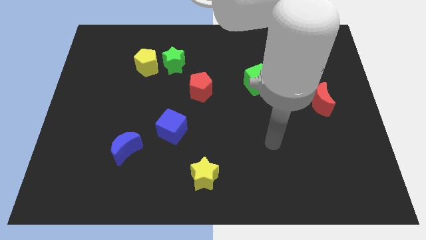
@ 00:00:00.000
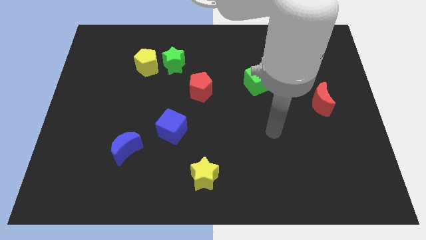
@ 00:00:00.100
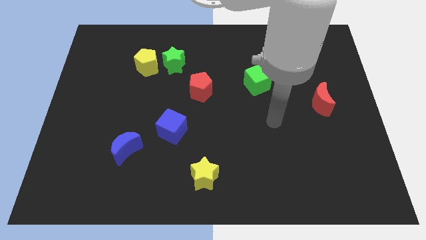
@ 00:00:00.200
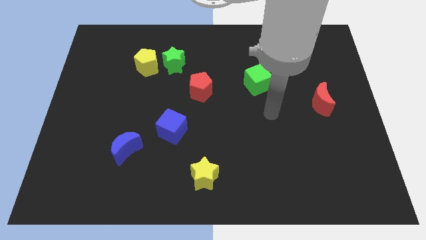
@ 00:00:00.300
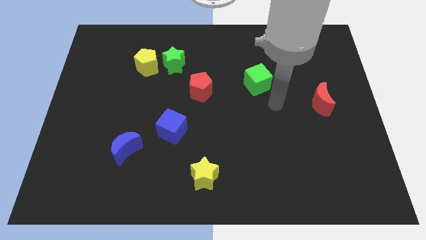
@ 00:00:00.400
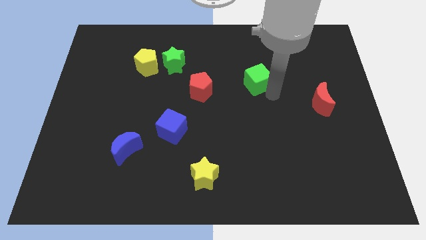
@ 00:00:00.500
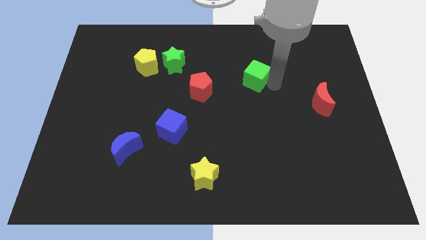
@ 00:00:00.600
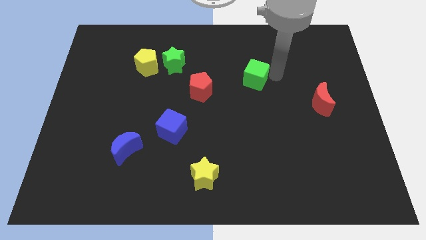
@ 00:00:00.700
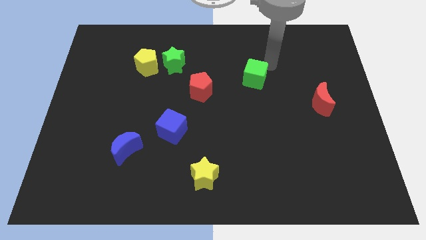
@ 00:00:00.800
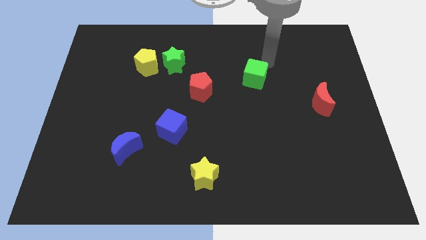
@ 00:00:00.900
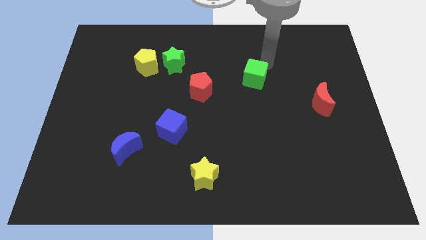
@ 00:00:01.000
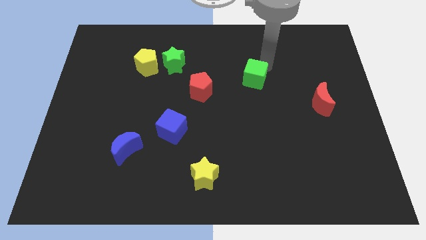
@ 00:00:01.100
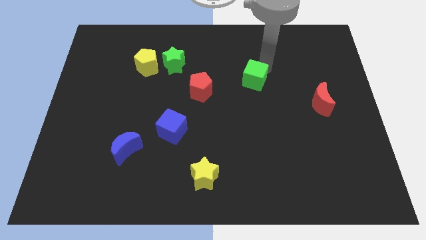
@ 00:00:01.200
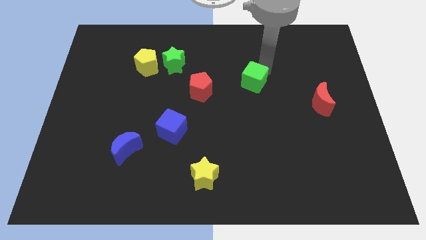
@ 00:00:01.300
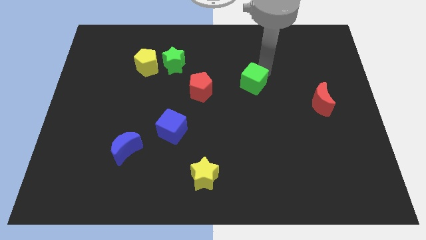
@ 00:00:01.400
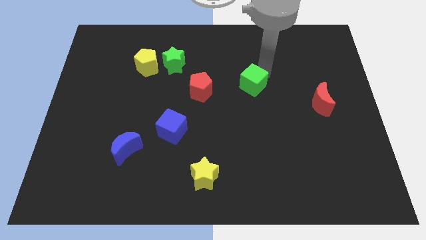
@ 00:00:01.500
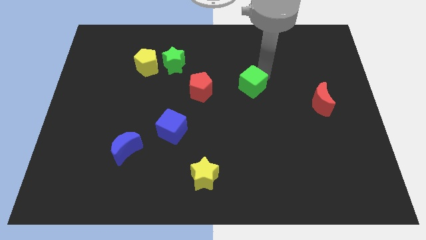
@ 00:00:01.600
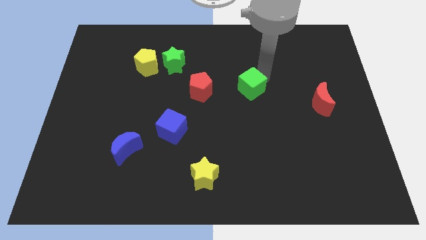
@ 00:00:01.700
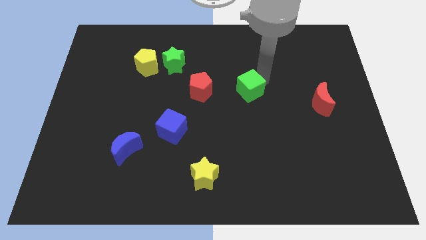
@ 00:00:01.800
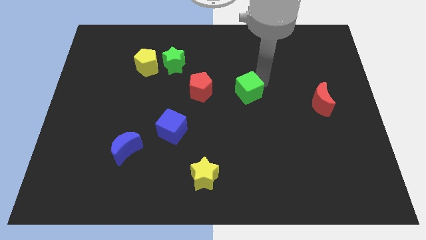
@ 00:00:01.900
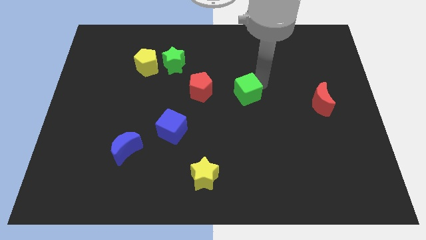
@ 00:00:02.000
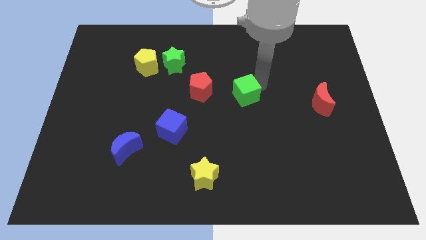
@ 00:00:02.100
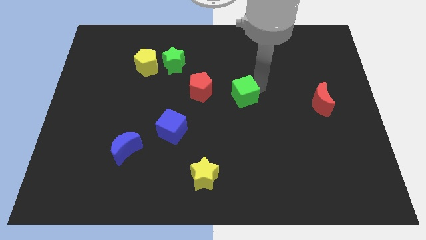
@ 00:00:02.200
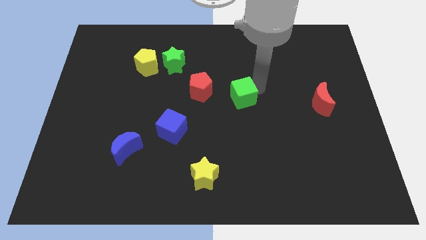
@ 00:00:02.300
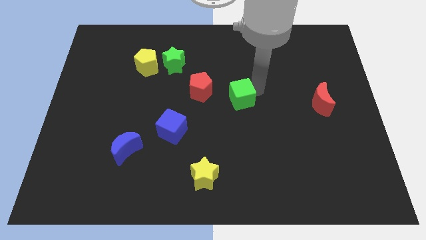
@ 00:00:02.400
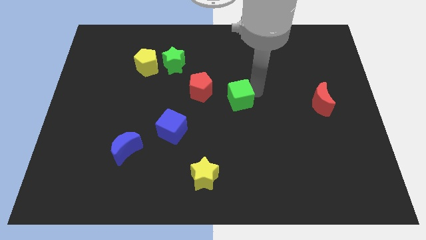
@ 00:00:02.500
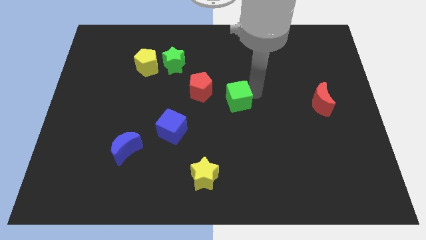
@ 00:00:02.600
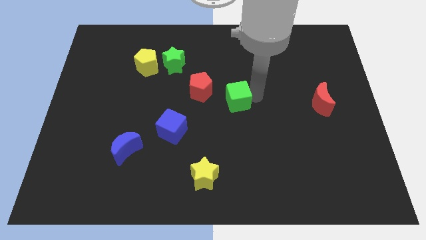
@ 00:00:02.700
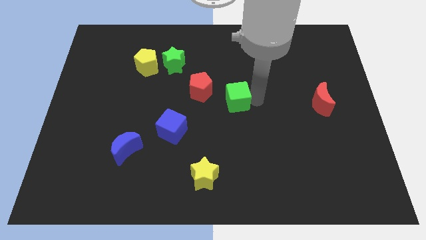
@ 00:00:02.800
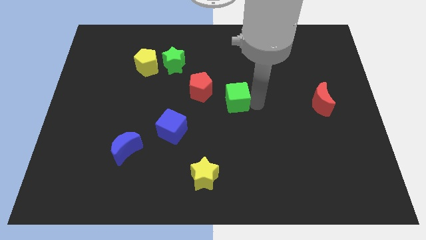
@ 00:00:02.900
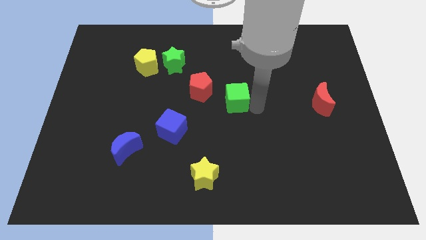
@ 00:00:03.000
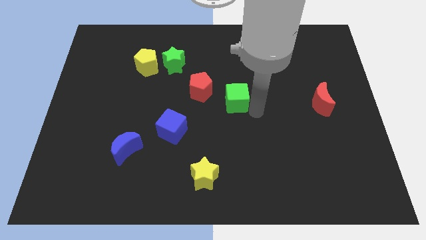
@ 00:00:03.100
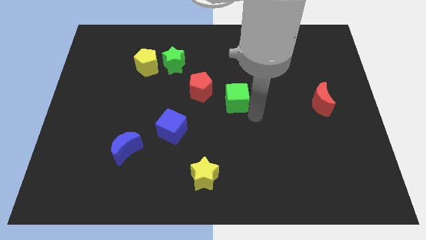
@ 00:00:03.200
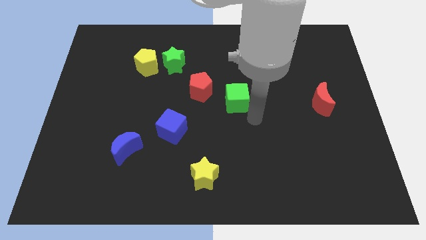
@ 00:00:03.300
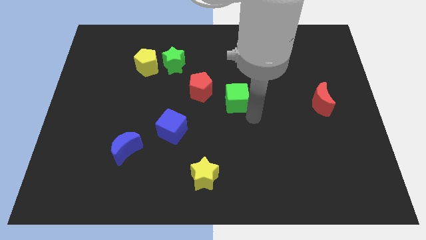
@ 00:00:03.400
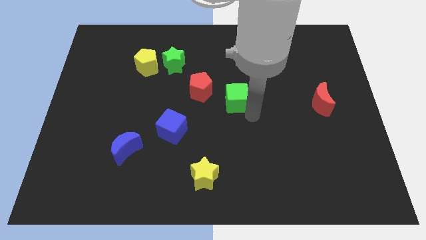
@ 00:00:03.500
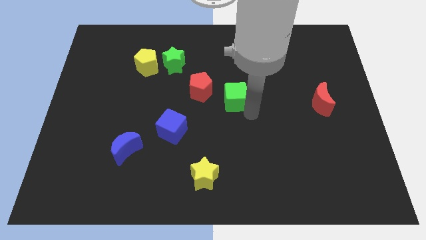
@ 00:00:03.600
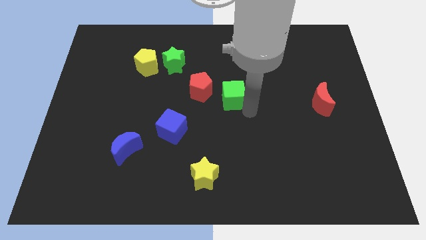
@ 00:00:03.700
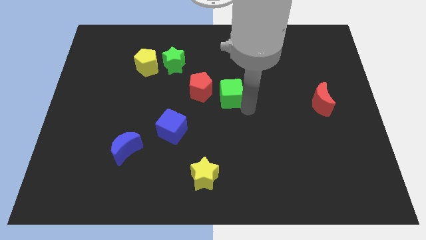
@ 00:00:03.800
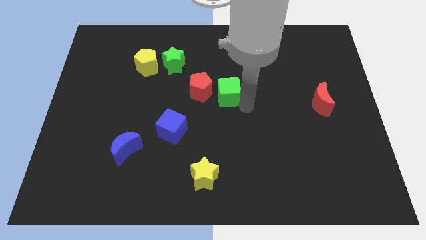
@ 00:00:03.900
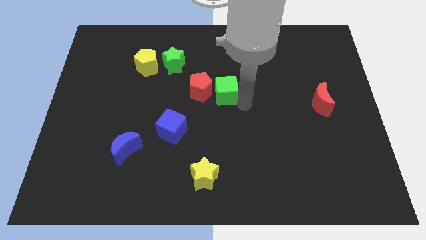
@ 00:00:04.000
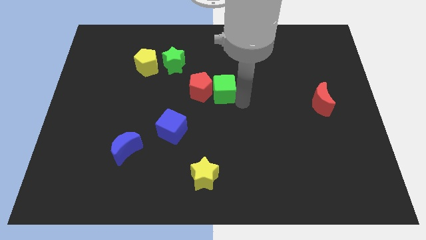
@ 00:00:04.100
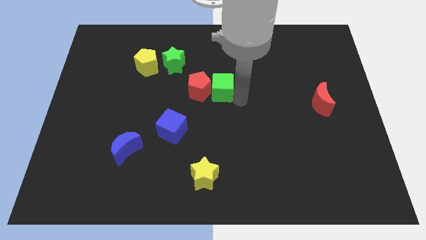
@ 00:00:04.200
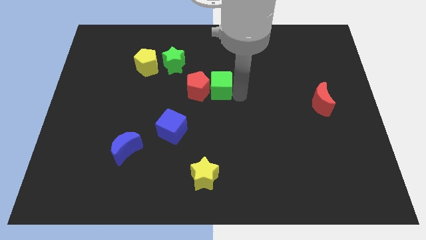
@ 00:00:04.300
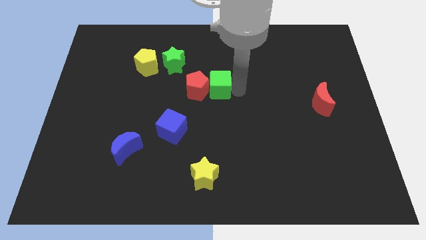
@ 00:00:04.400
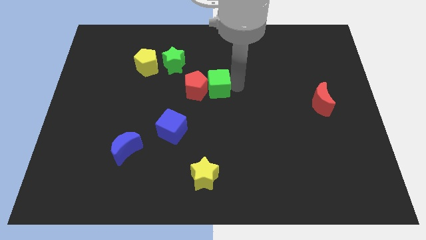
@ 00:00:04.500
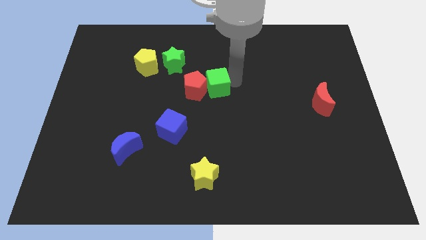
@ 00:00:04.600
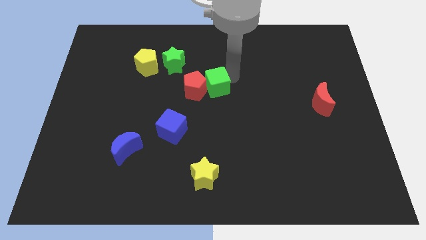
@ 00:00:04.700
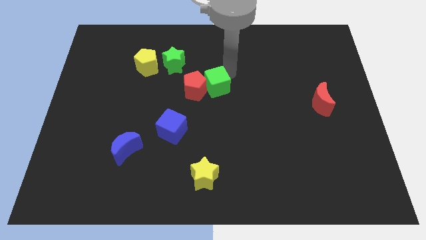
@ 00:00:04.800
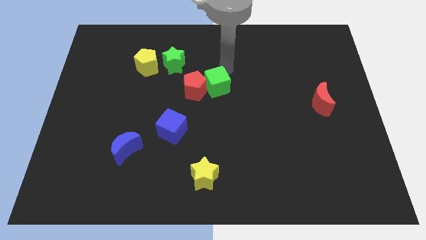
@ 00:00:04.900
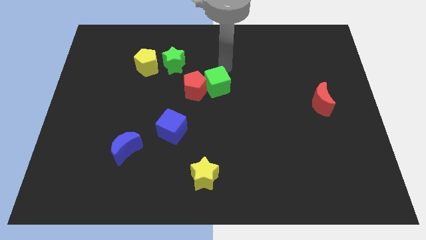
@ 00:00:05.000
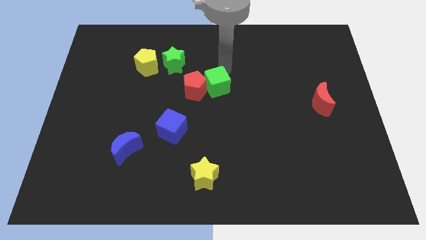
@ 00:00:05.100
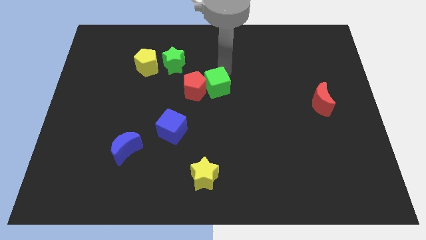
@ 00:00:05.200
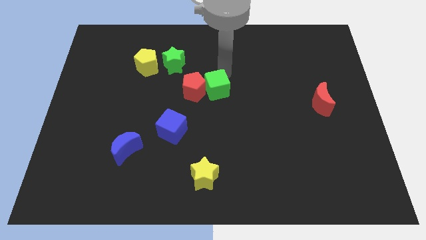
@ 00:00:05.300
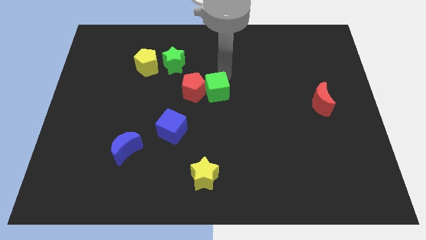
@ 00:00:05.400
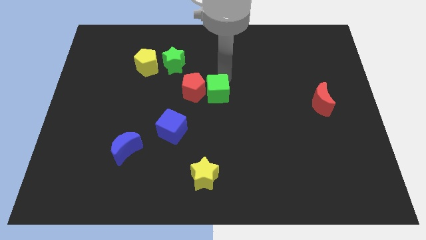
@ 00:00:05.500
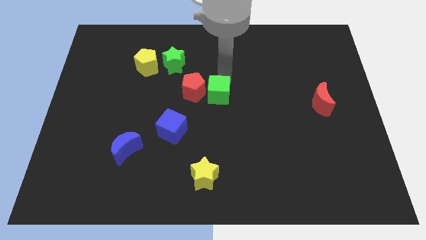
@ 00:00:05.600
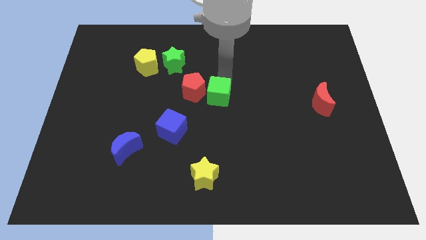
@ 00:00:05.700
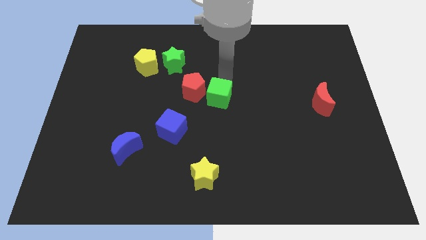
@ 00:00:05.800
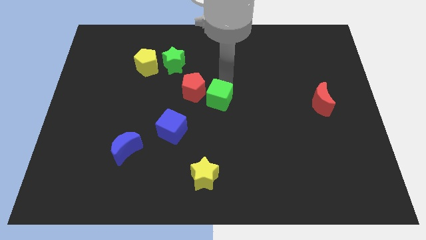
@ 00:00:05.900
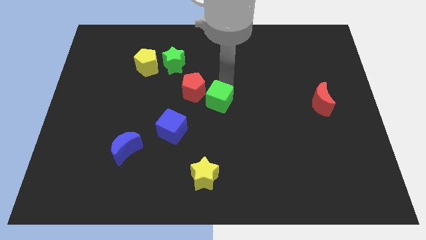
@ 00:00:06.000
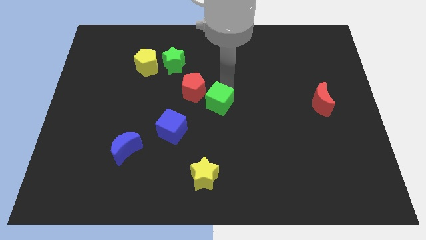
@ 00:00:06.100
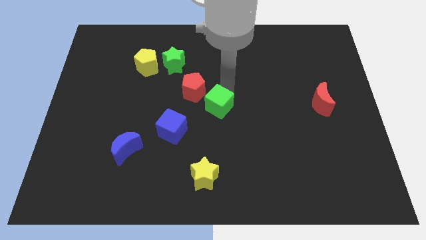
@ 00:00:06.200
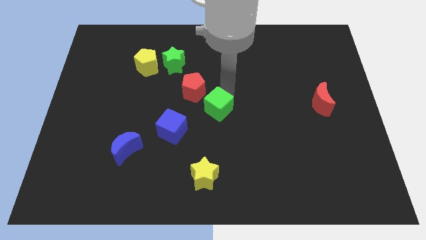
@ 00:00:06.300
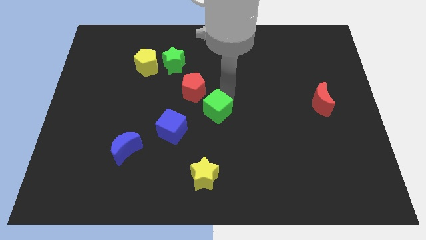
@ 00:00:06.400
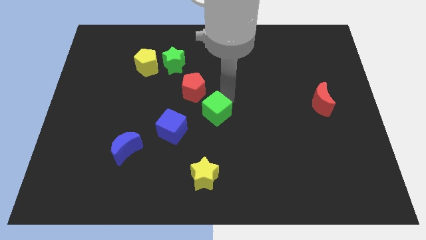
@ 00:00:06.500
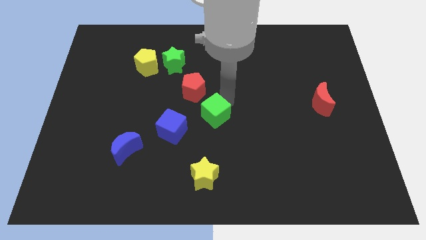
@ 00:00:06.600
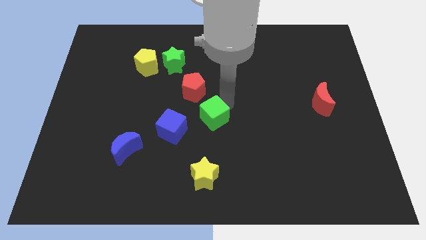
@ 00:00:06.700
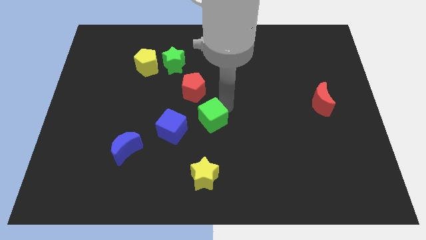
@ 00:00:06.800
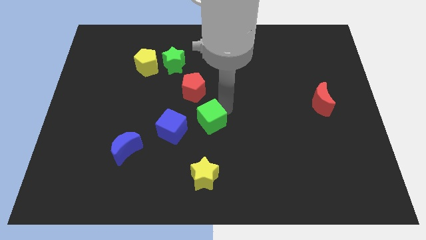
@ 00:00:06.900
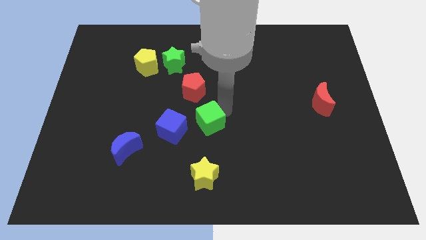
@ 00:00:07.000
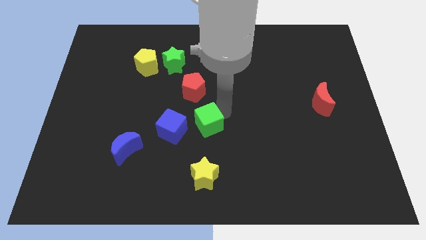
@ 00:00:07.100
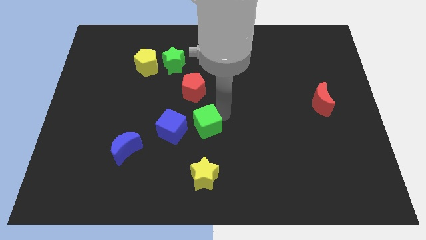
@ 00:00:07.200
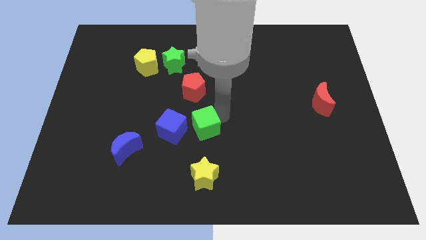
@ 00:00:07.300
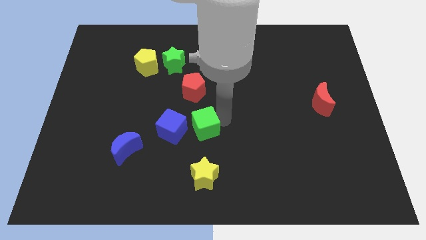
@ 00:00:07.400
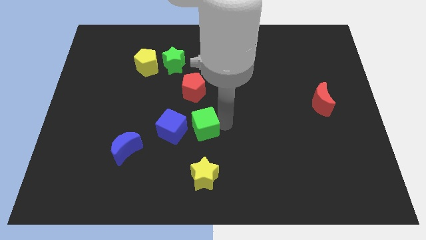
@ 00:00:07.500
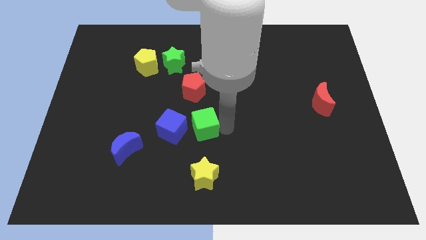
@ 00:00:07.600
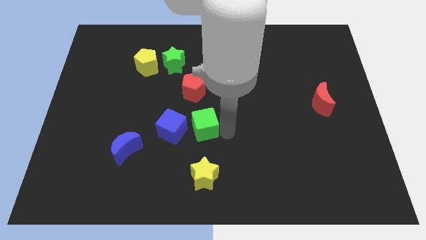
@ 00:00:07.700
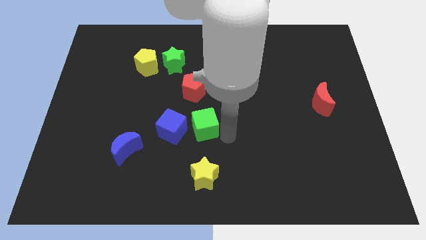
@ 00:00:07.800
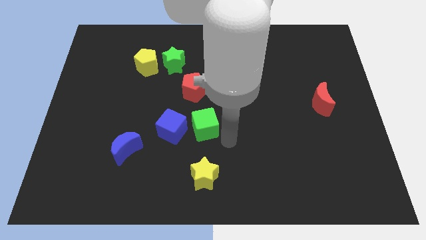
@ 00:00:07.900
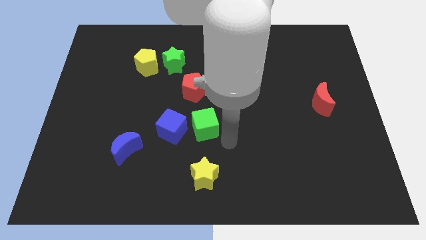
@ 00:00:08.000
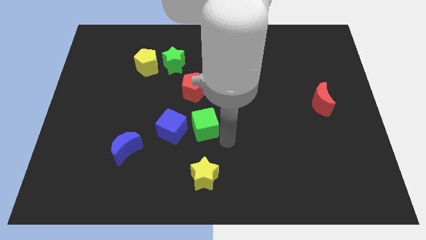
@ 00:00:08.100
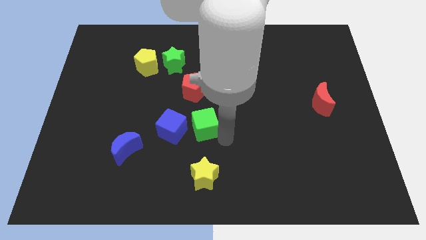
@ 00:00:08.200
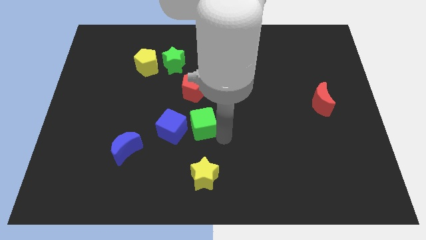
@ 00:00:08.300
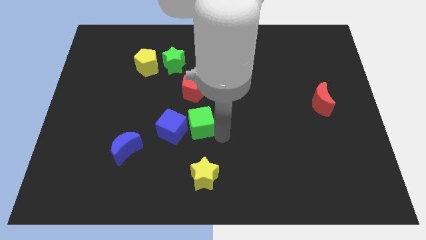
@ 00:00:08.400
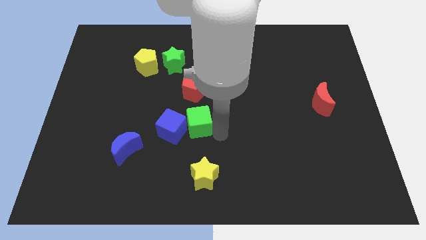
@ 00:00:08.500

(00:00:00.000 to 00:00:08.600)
push the green cube towards the blue cube
